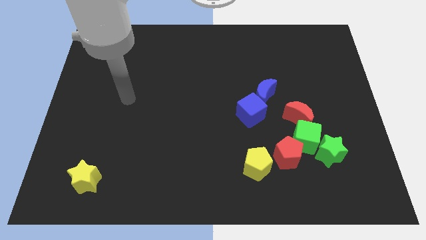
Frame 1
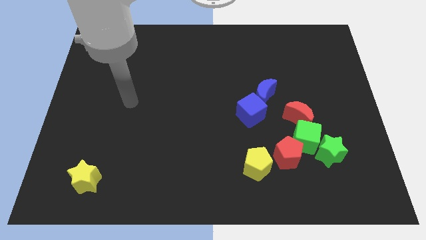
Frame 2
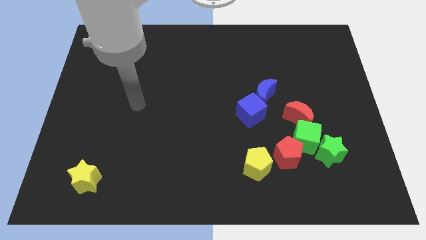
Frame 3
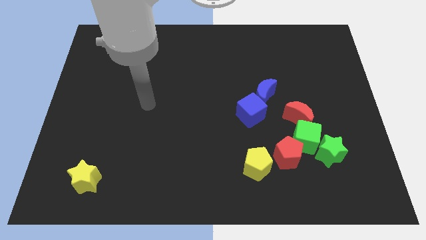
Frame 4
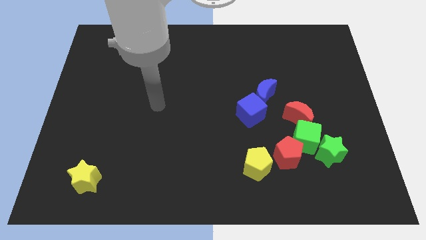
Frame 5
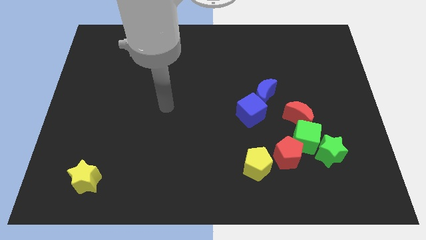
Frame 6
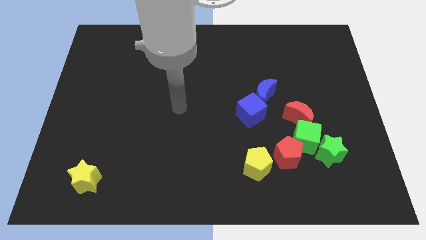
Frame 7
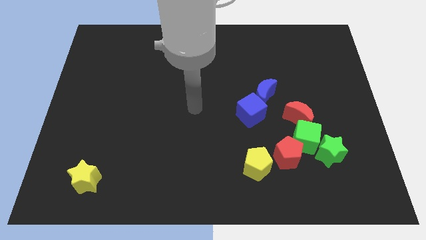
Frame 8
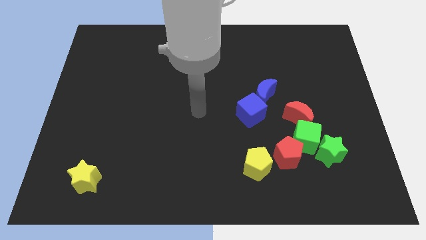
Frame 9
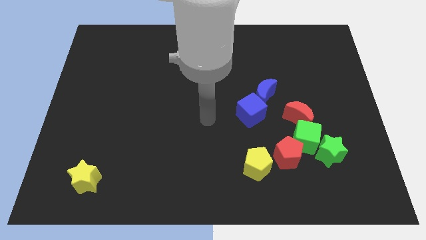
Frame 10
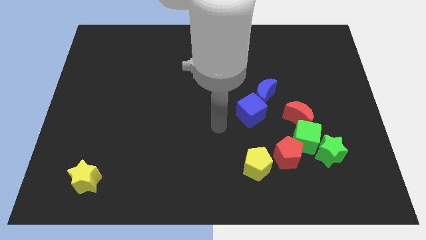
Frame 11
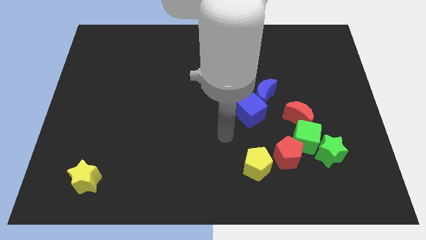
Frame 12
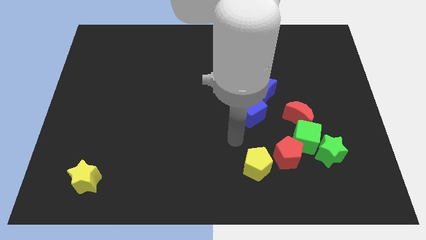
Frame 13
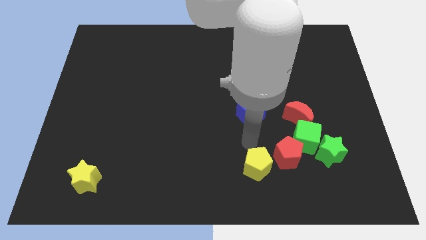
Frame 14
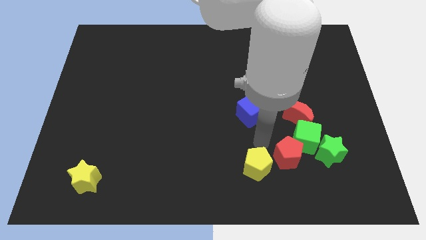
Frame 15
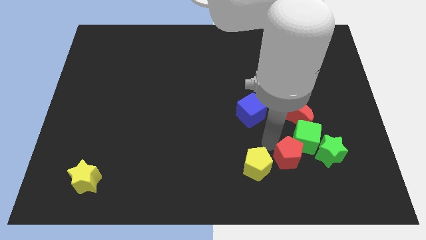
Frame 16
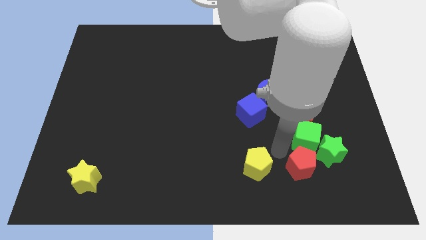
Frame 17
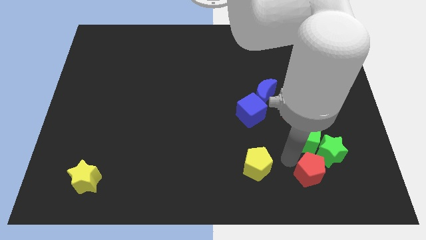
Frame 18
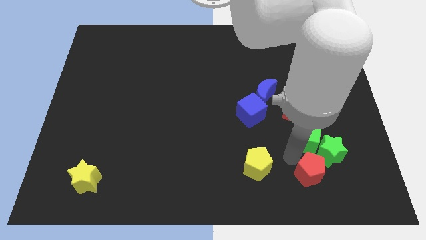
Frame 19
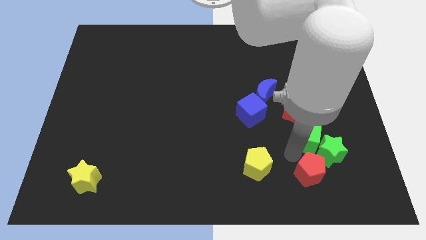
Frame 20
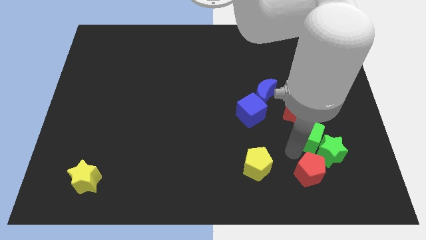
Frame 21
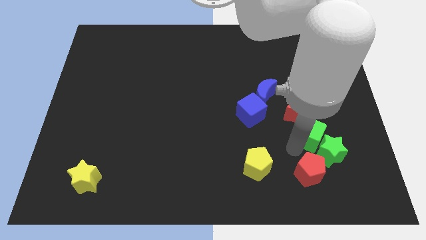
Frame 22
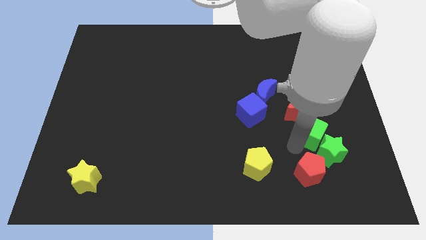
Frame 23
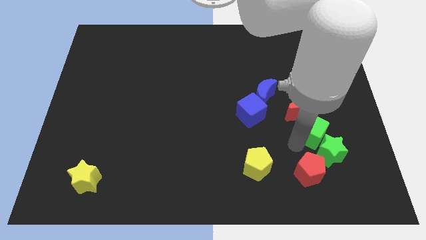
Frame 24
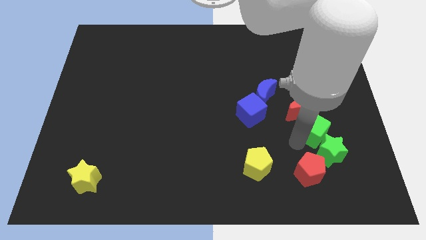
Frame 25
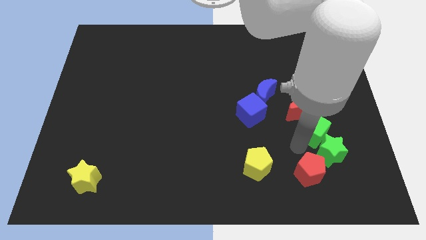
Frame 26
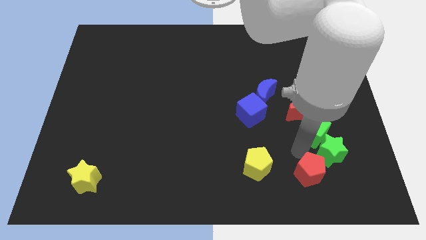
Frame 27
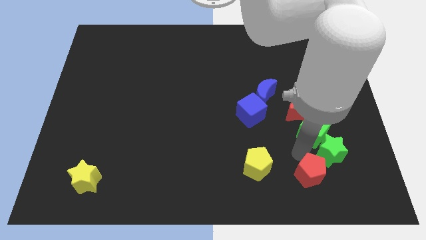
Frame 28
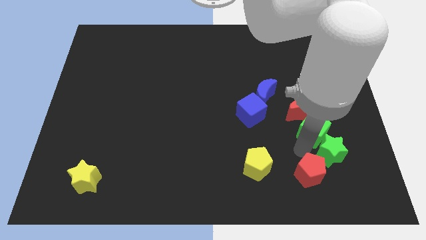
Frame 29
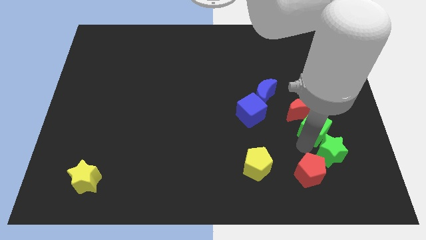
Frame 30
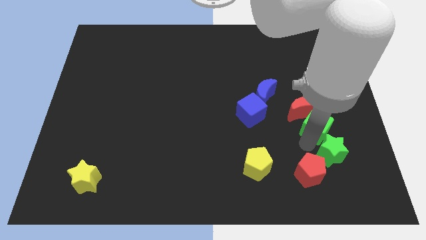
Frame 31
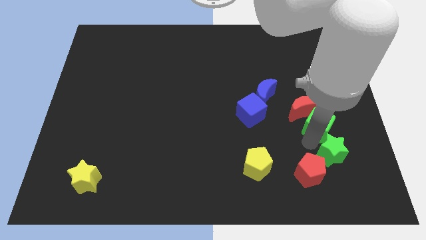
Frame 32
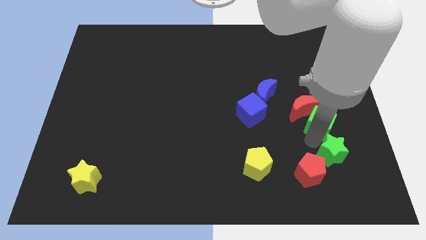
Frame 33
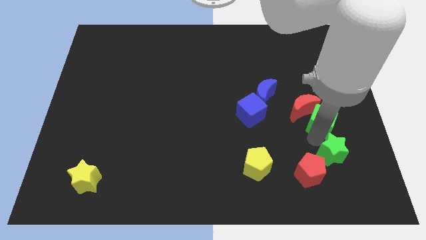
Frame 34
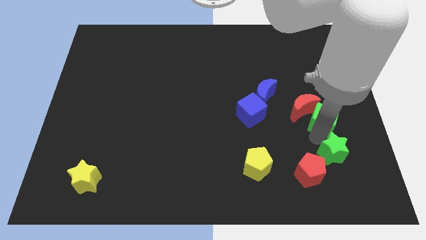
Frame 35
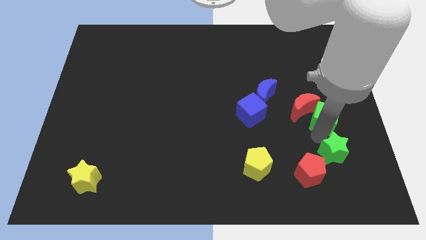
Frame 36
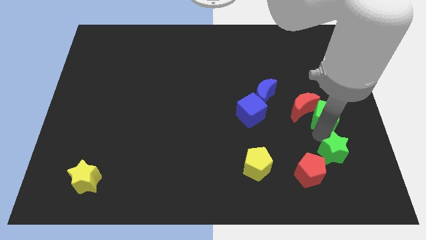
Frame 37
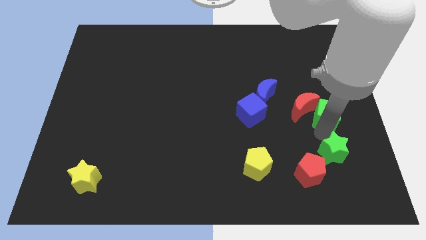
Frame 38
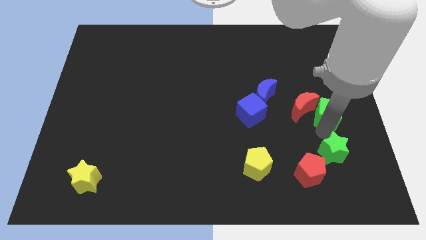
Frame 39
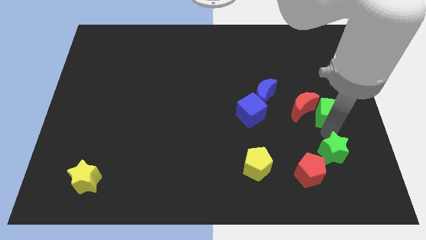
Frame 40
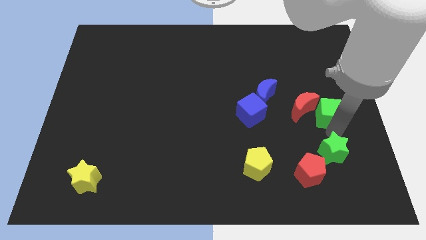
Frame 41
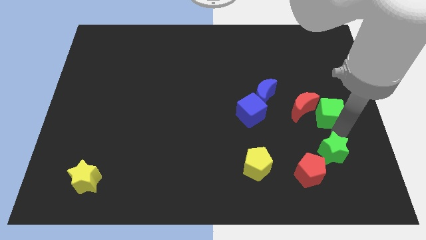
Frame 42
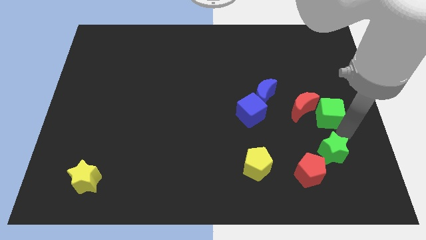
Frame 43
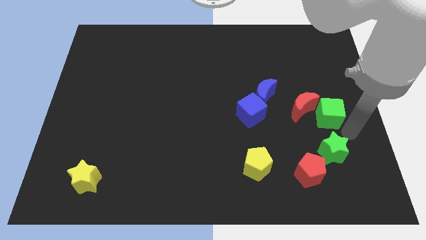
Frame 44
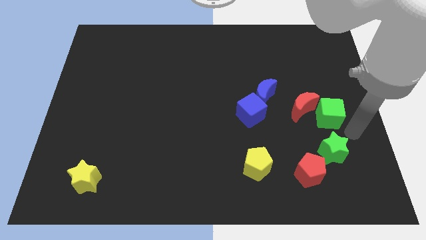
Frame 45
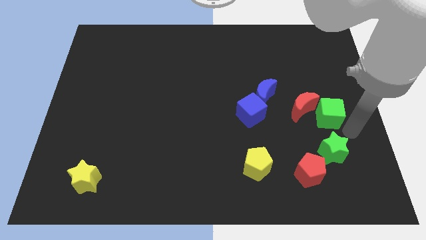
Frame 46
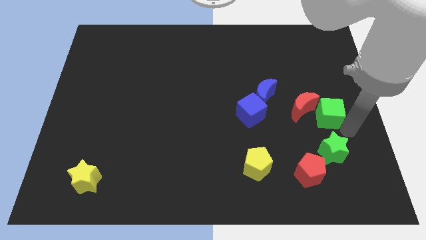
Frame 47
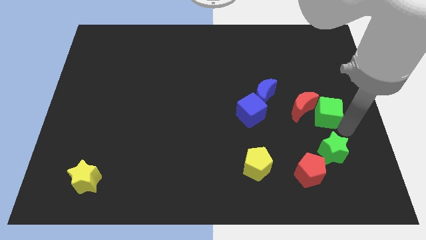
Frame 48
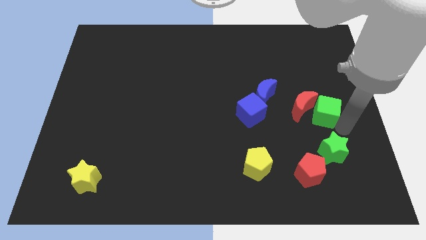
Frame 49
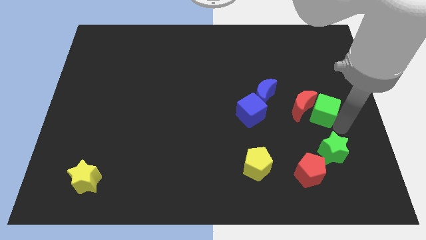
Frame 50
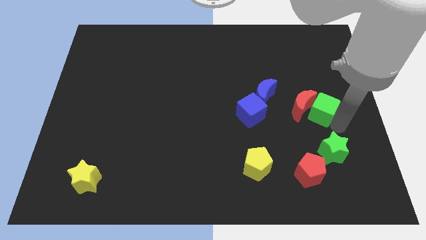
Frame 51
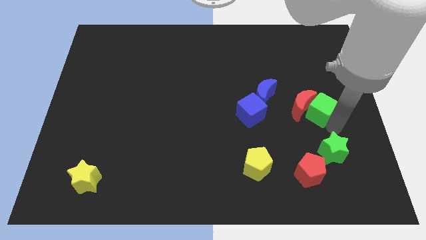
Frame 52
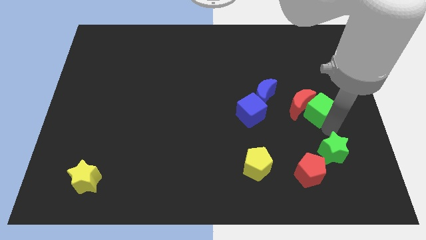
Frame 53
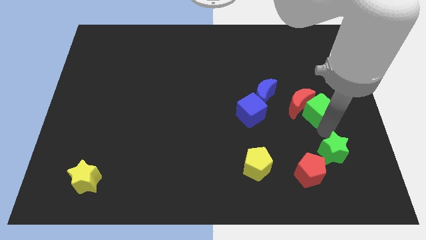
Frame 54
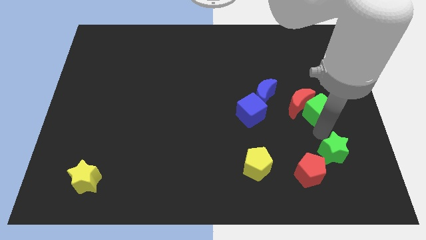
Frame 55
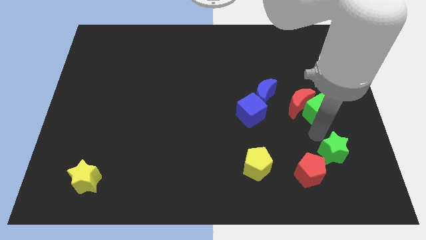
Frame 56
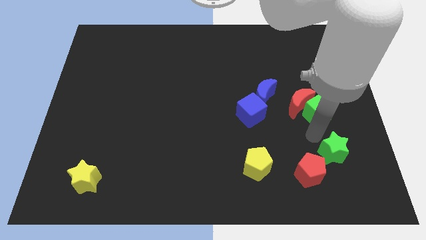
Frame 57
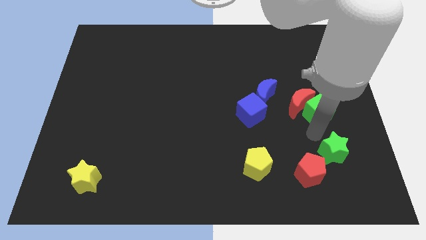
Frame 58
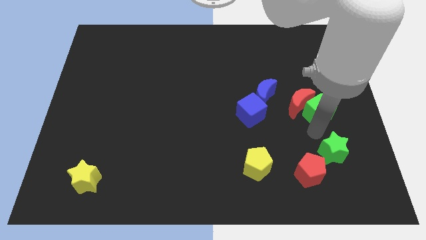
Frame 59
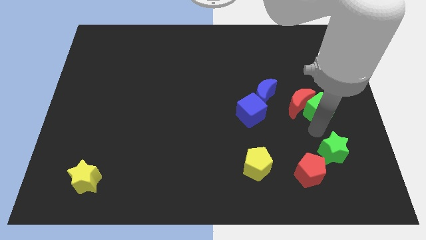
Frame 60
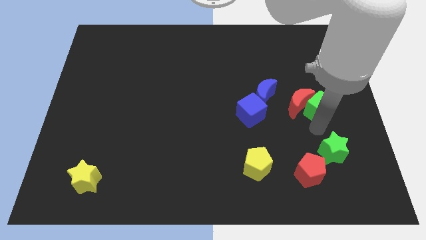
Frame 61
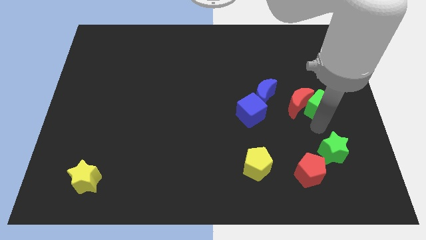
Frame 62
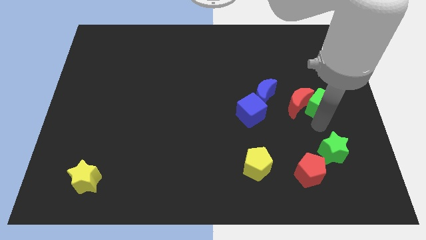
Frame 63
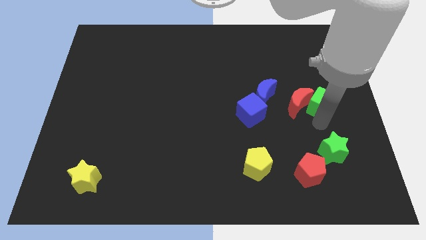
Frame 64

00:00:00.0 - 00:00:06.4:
pull the green cube apart from the green star, red pentagon, and red moon

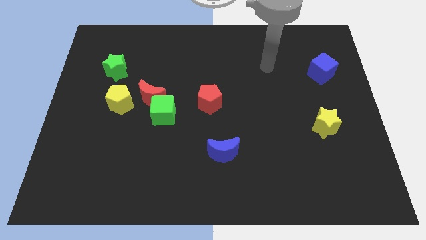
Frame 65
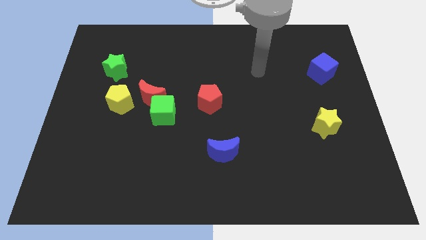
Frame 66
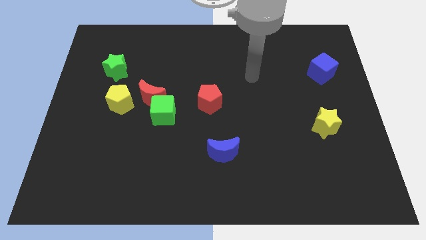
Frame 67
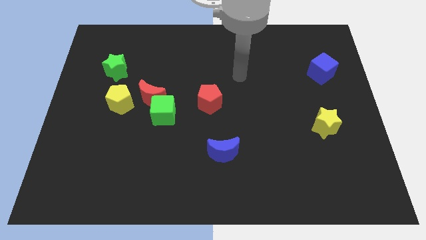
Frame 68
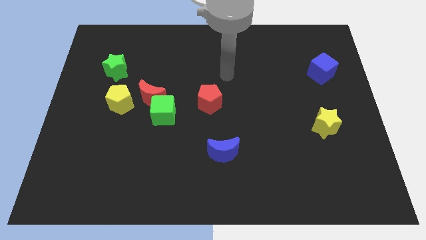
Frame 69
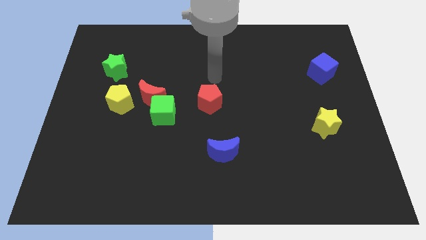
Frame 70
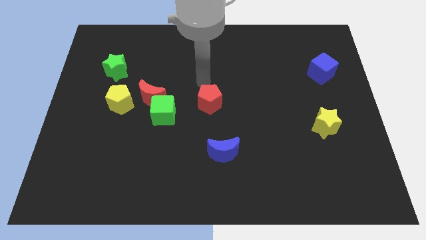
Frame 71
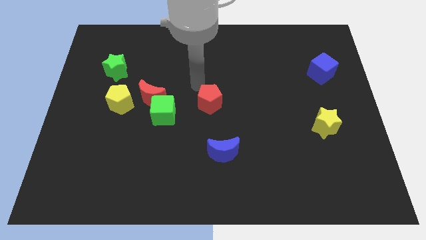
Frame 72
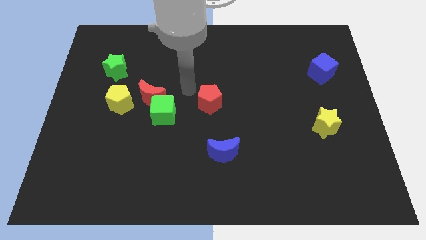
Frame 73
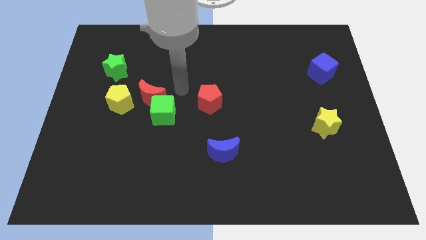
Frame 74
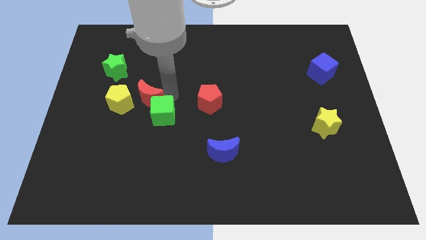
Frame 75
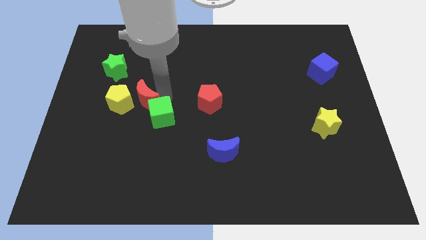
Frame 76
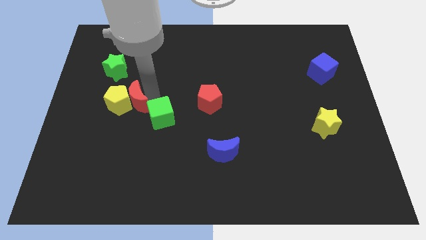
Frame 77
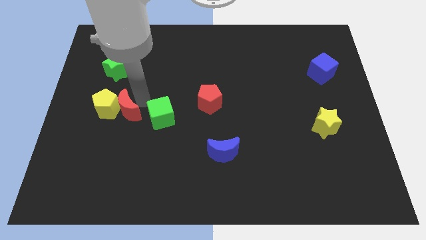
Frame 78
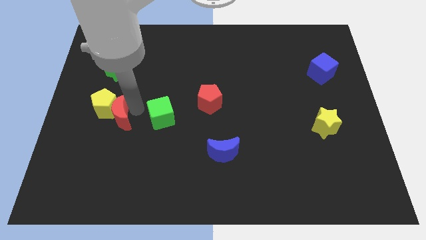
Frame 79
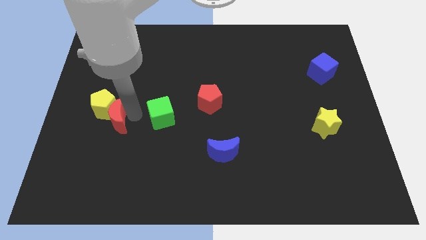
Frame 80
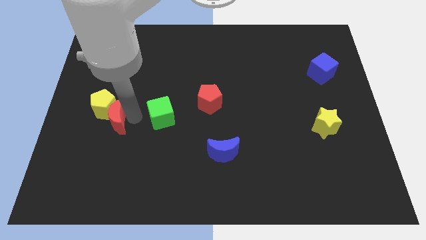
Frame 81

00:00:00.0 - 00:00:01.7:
pull the green cube apart from the red moon

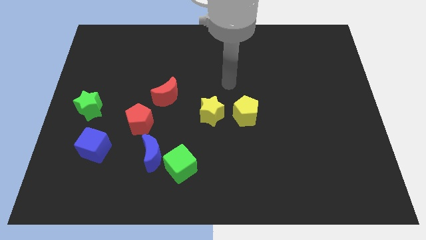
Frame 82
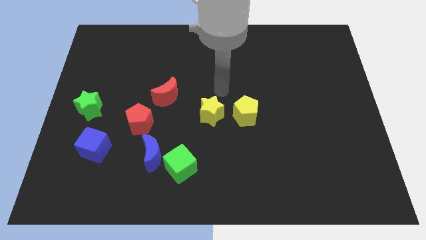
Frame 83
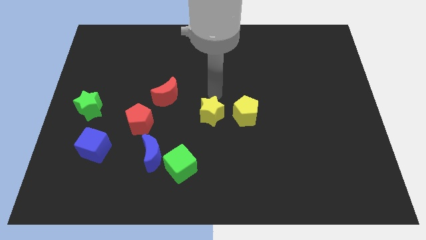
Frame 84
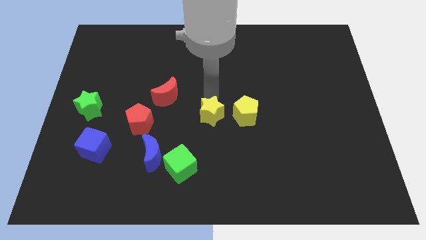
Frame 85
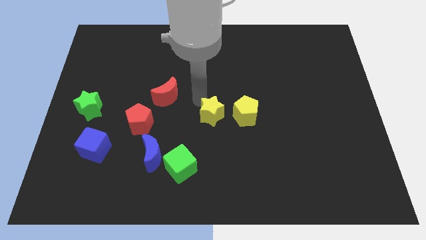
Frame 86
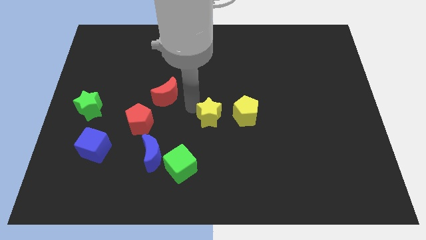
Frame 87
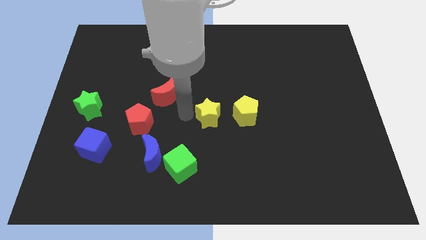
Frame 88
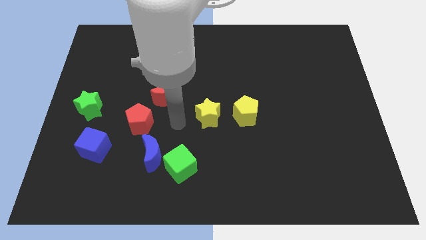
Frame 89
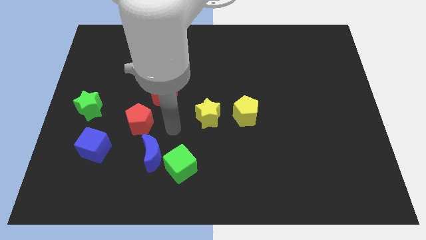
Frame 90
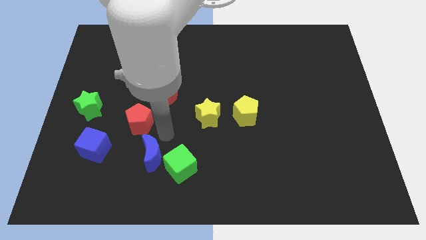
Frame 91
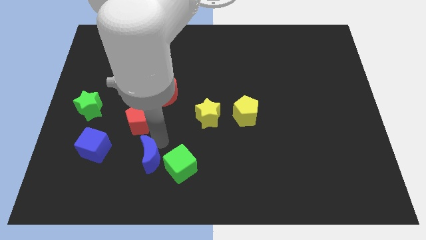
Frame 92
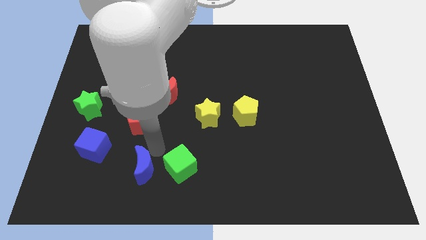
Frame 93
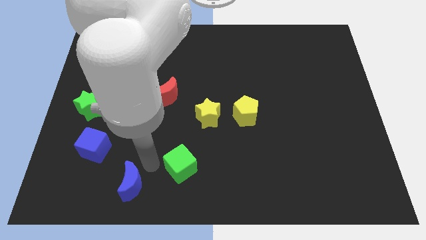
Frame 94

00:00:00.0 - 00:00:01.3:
separate the green cube from the blue moon
